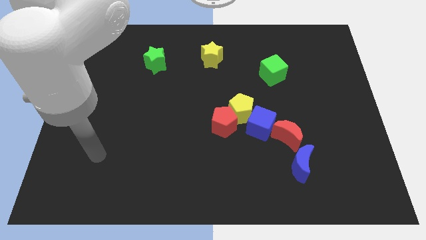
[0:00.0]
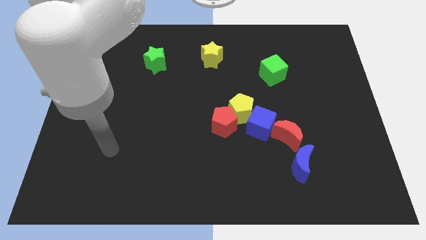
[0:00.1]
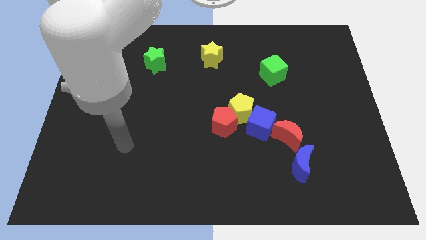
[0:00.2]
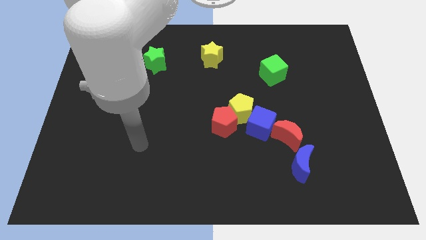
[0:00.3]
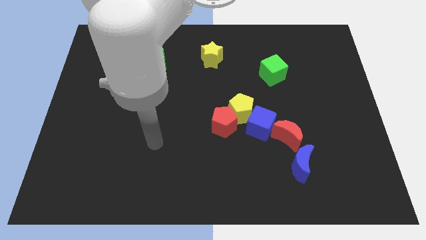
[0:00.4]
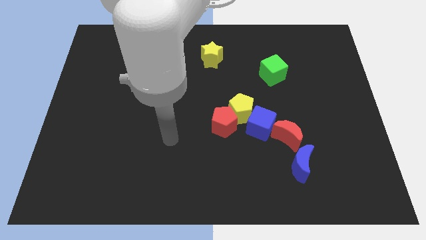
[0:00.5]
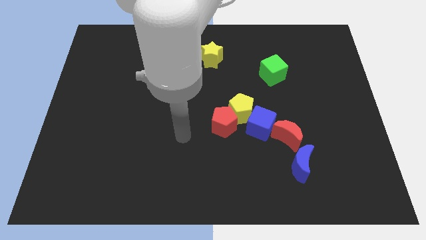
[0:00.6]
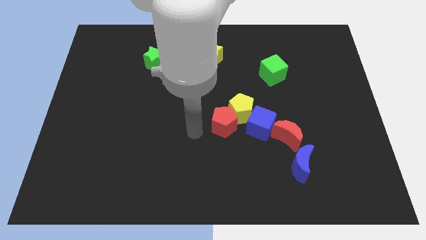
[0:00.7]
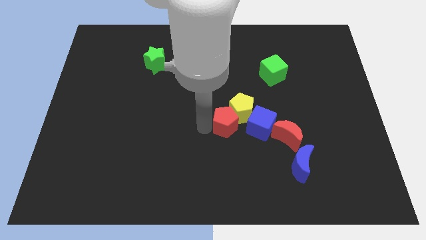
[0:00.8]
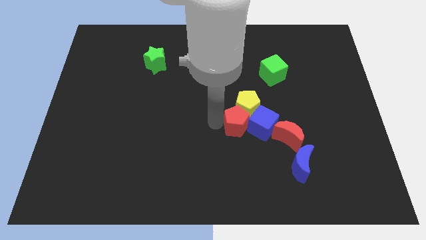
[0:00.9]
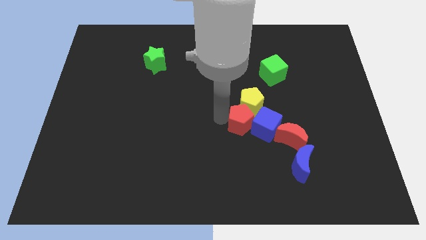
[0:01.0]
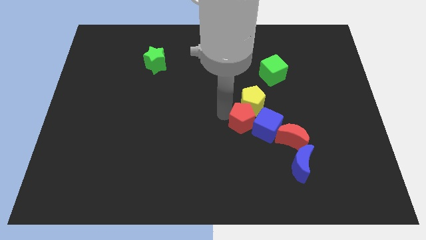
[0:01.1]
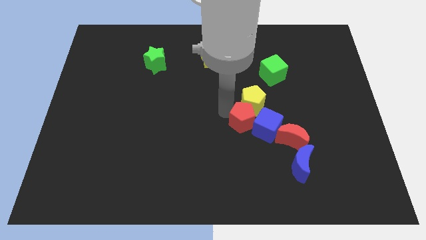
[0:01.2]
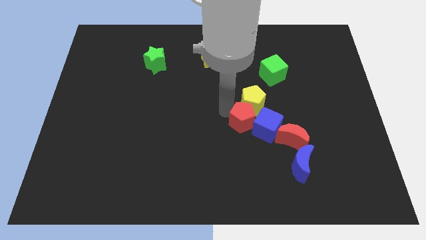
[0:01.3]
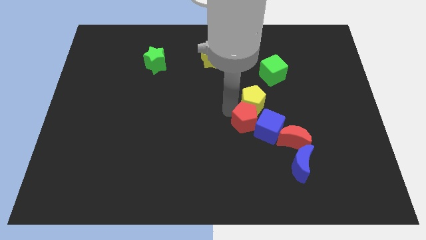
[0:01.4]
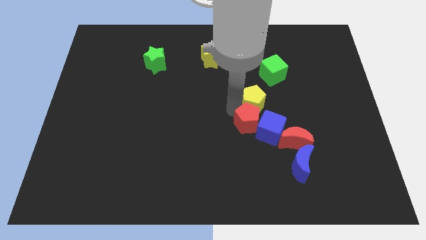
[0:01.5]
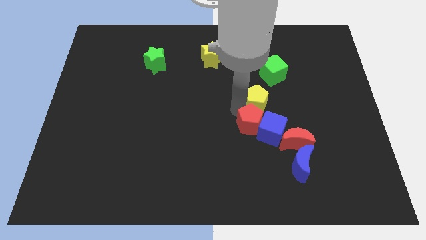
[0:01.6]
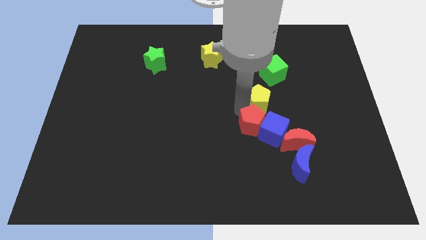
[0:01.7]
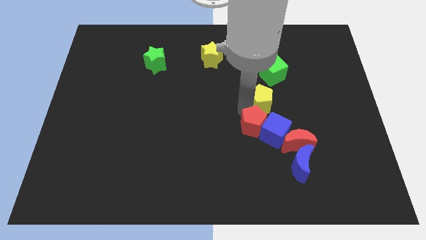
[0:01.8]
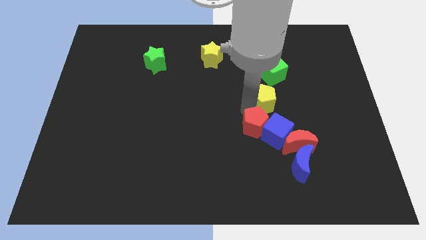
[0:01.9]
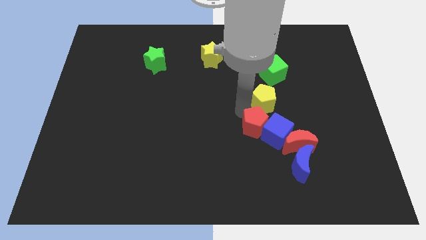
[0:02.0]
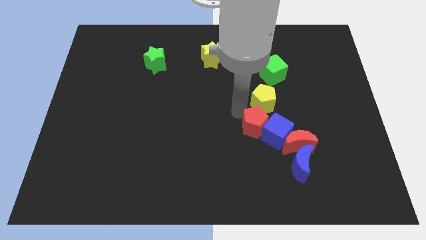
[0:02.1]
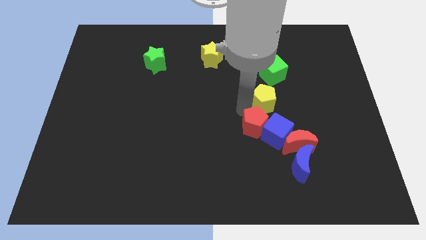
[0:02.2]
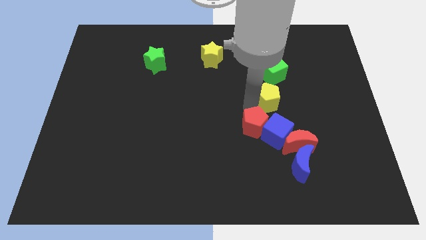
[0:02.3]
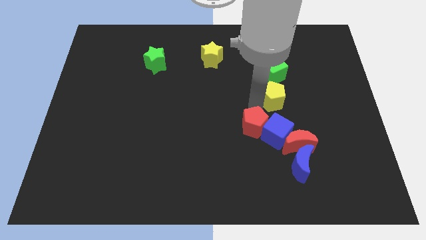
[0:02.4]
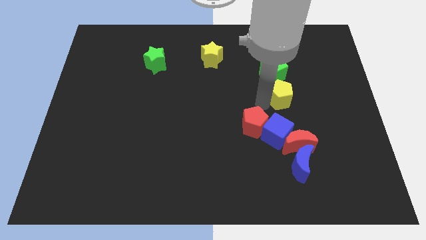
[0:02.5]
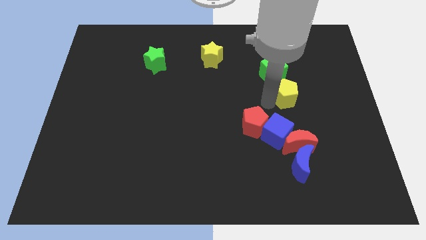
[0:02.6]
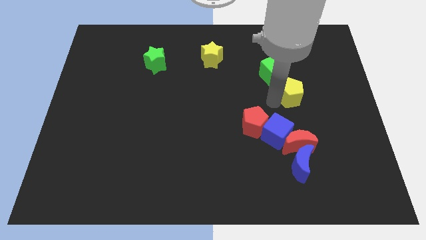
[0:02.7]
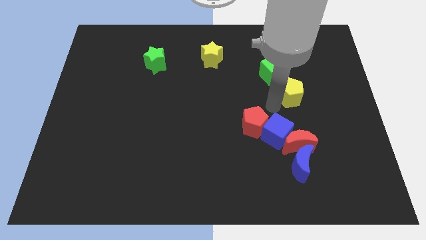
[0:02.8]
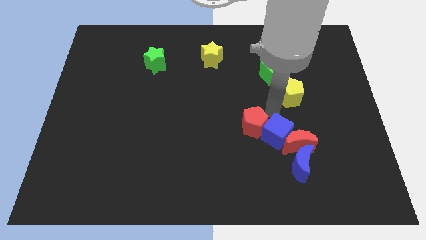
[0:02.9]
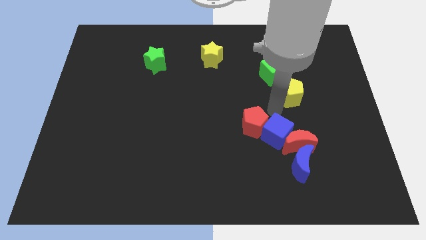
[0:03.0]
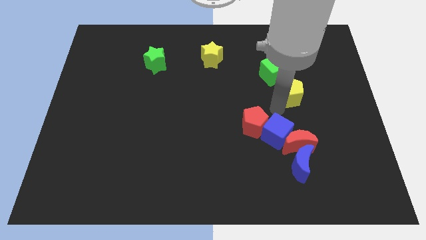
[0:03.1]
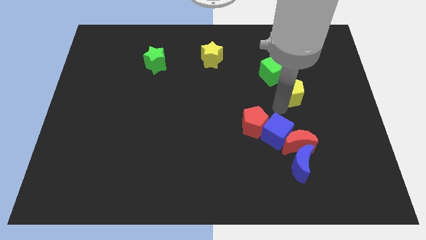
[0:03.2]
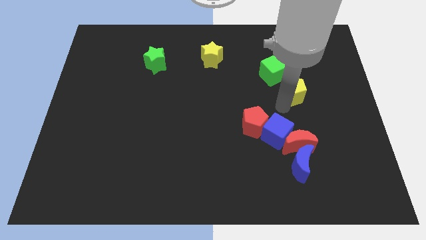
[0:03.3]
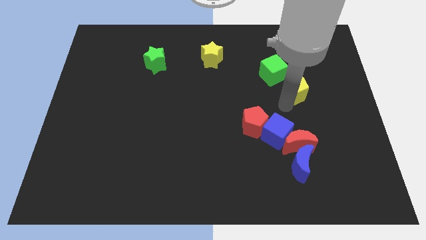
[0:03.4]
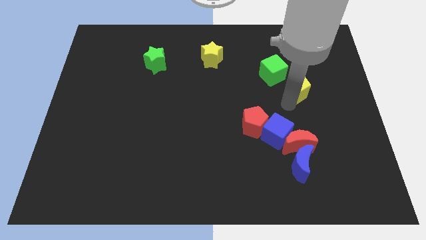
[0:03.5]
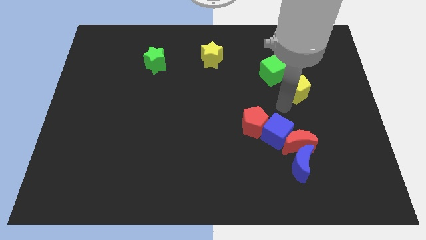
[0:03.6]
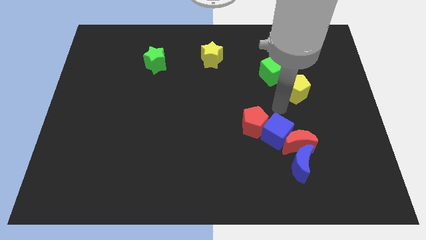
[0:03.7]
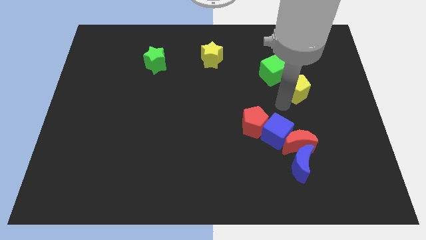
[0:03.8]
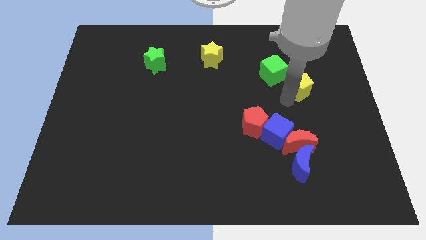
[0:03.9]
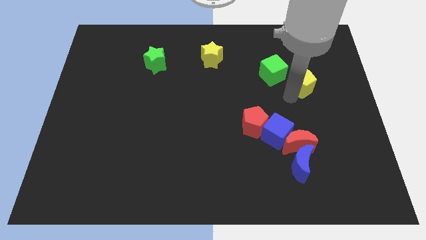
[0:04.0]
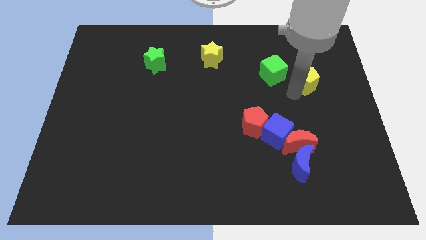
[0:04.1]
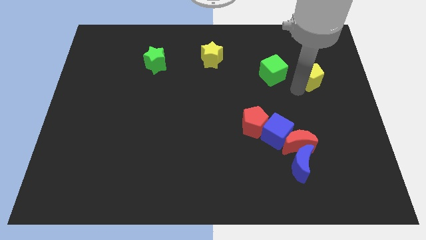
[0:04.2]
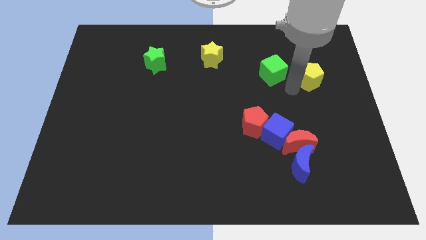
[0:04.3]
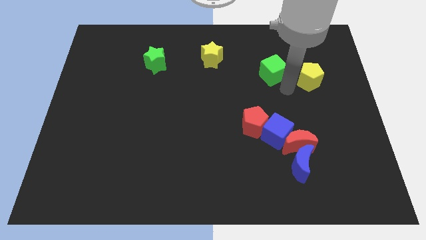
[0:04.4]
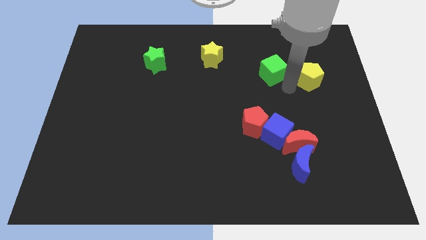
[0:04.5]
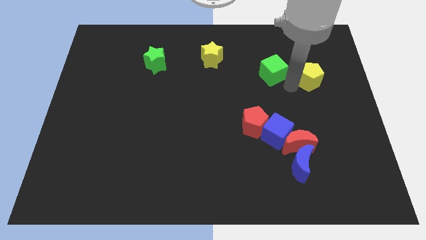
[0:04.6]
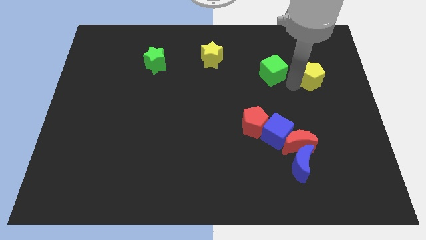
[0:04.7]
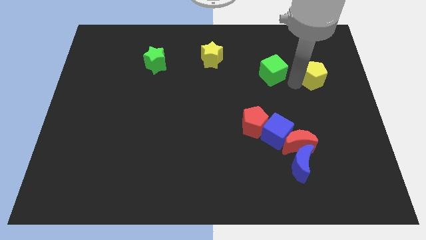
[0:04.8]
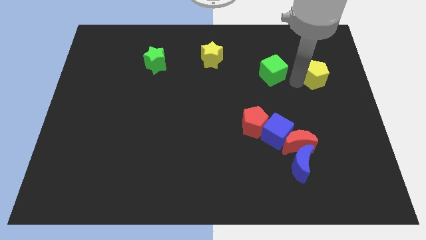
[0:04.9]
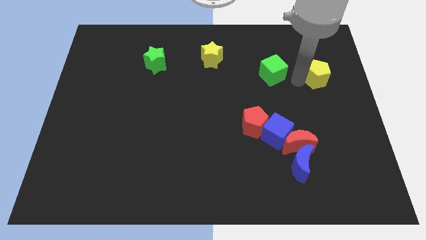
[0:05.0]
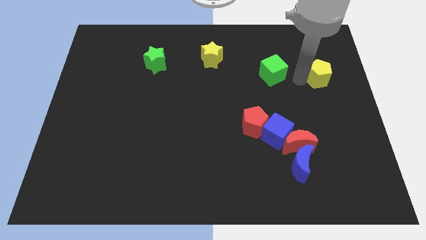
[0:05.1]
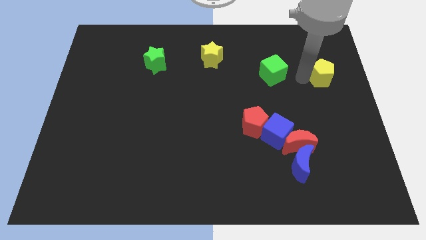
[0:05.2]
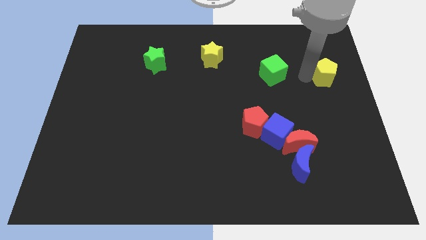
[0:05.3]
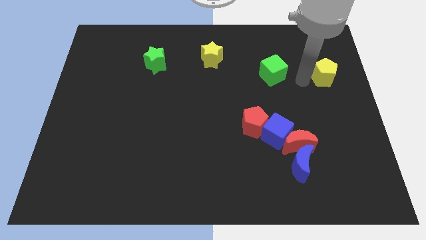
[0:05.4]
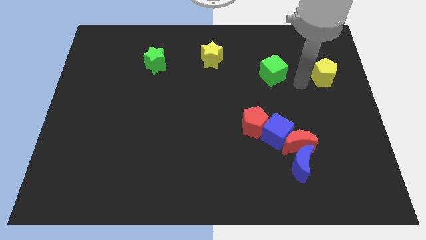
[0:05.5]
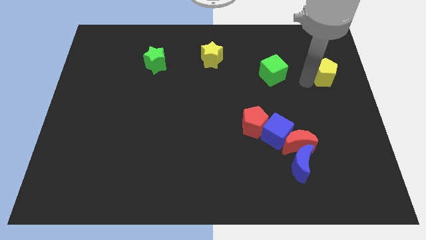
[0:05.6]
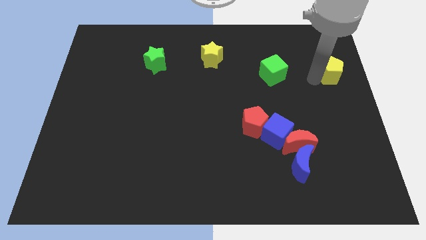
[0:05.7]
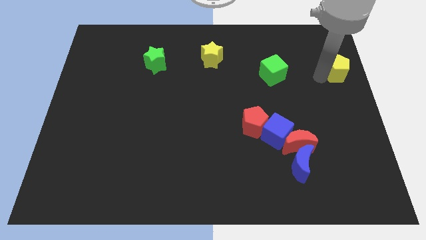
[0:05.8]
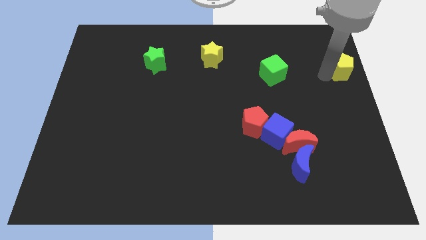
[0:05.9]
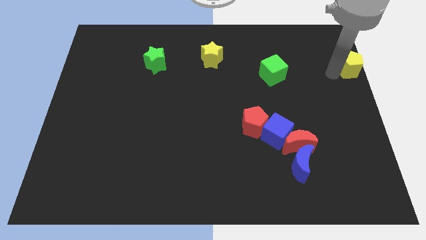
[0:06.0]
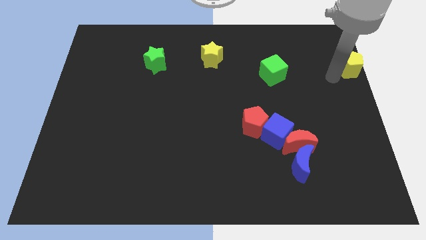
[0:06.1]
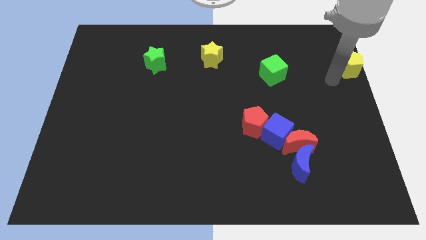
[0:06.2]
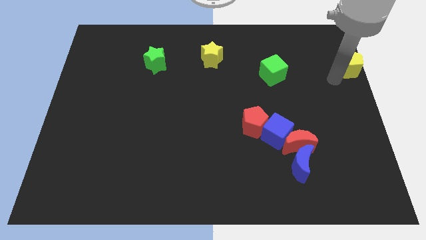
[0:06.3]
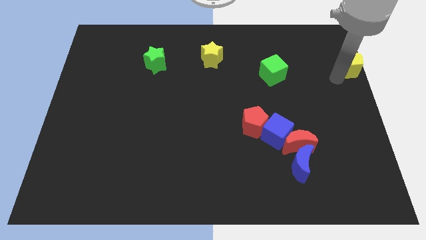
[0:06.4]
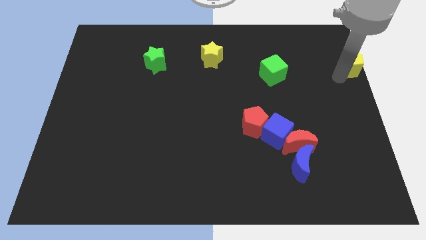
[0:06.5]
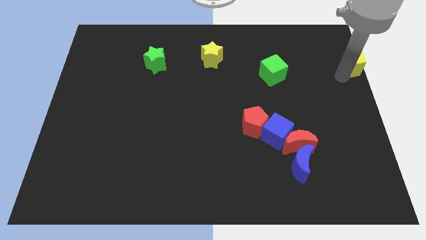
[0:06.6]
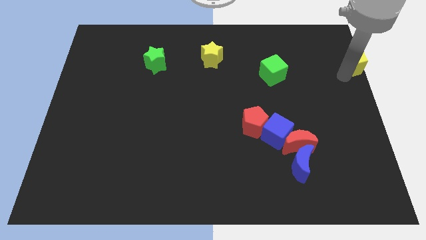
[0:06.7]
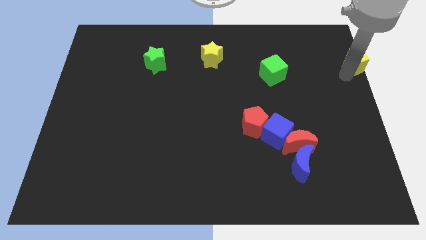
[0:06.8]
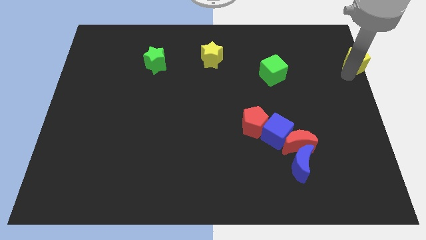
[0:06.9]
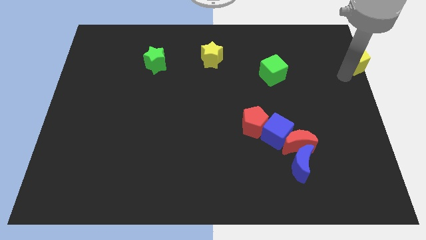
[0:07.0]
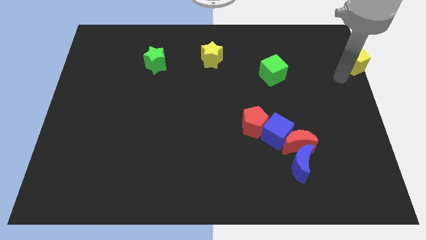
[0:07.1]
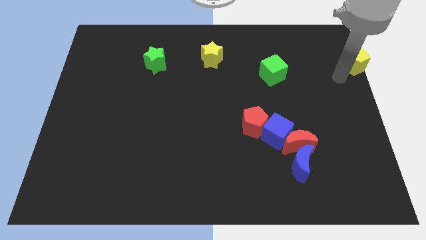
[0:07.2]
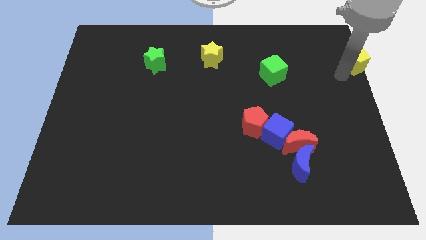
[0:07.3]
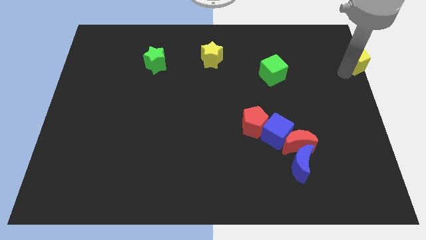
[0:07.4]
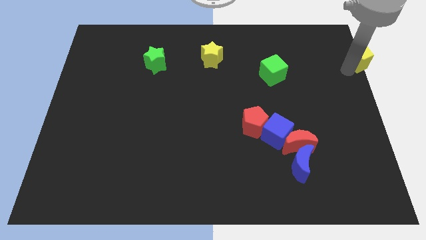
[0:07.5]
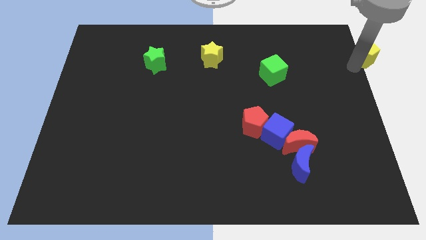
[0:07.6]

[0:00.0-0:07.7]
move the yellow pentagon to the upper right corner
